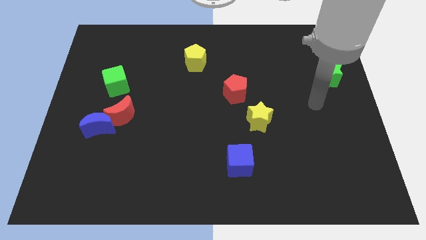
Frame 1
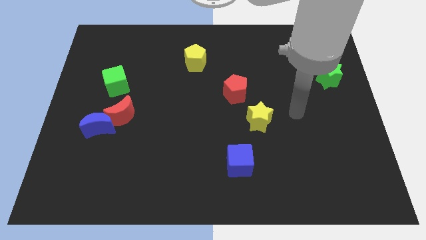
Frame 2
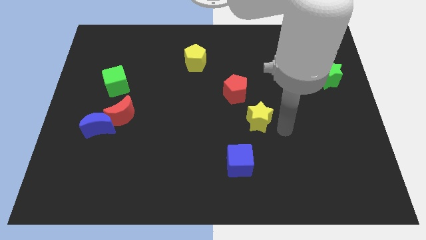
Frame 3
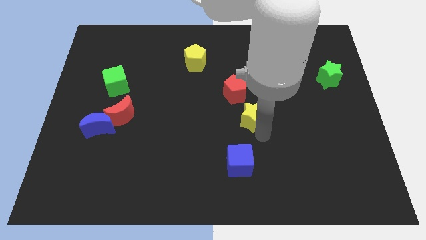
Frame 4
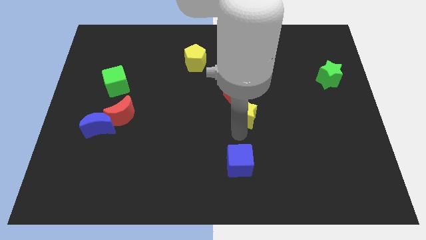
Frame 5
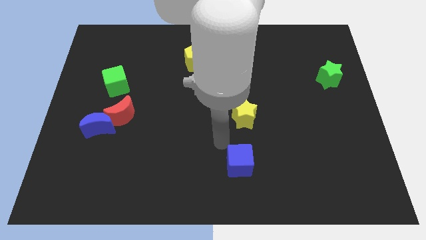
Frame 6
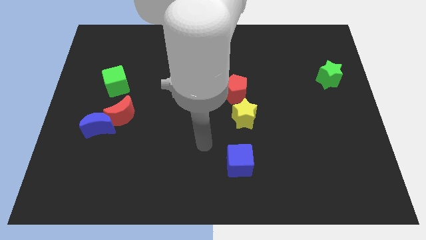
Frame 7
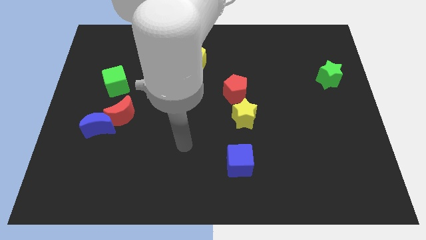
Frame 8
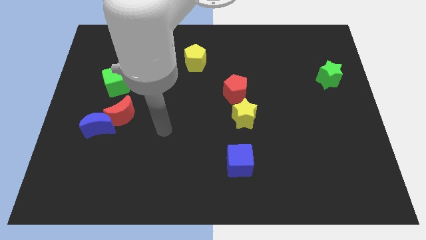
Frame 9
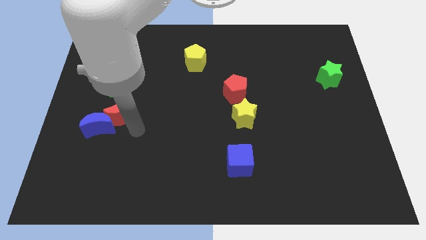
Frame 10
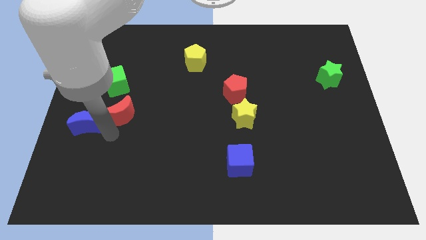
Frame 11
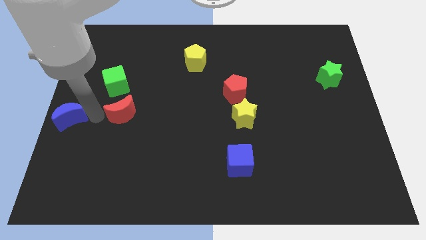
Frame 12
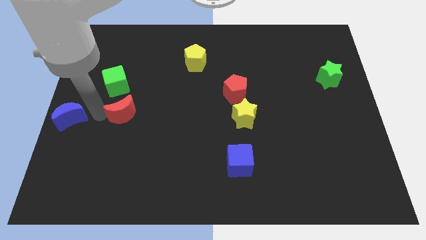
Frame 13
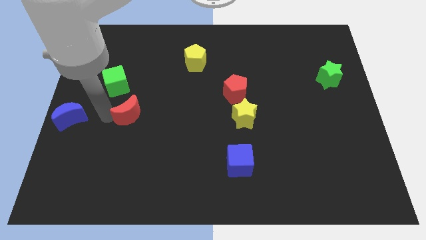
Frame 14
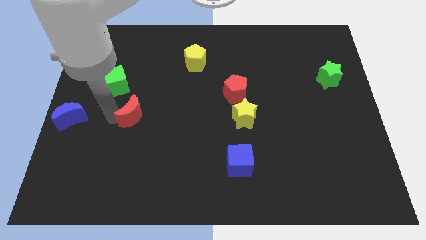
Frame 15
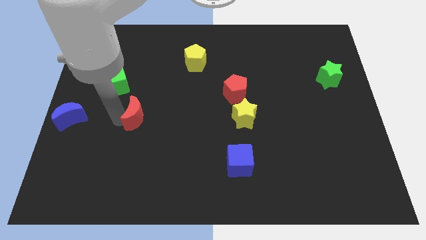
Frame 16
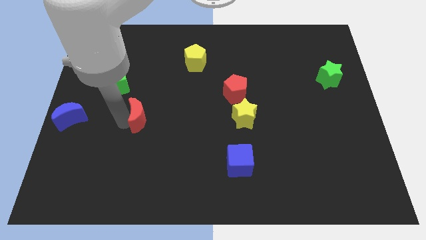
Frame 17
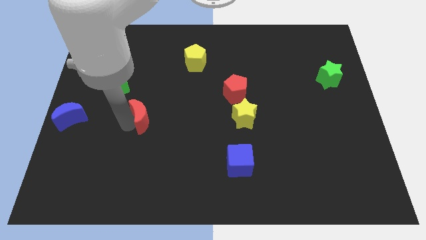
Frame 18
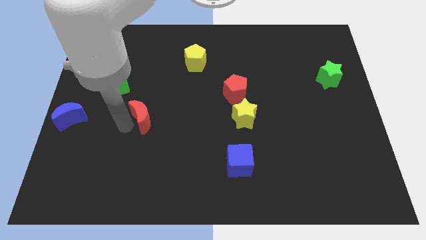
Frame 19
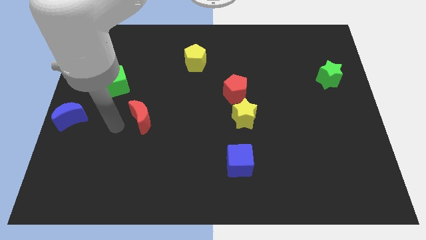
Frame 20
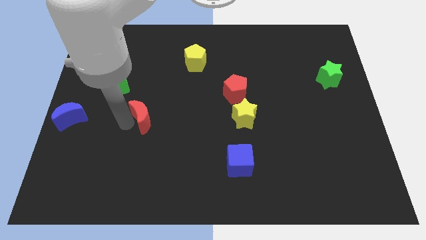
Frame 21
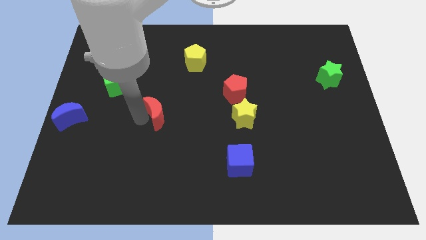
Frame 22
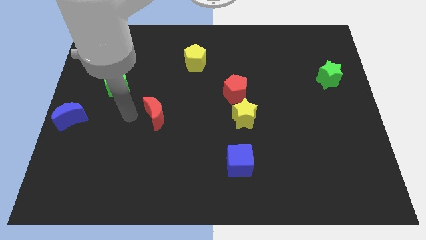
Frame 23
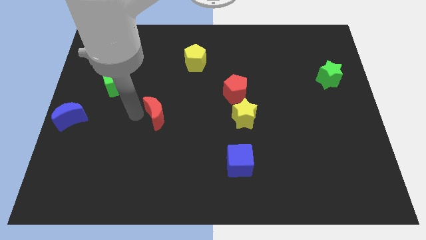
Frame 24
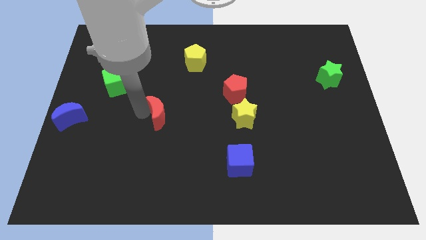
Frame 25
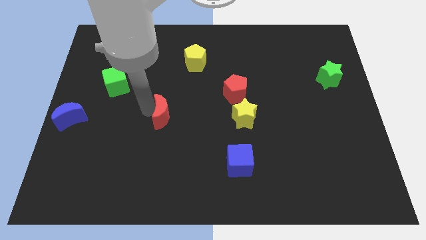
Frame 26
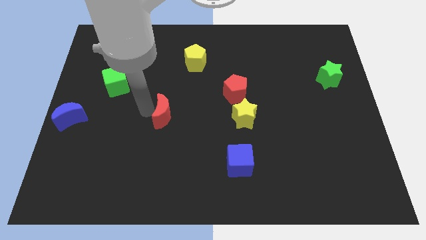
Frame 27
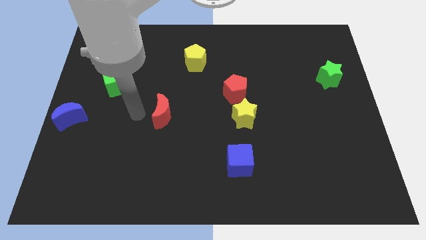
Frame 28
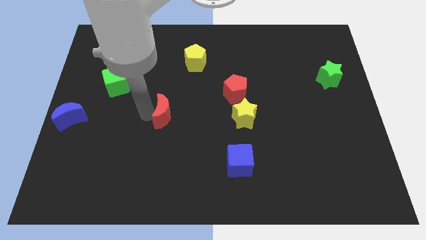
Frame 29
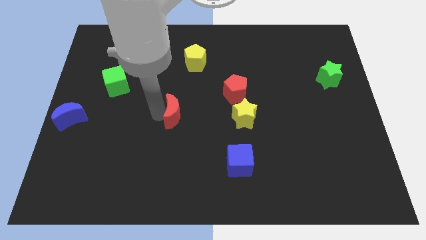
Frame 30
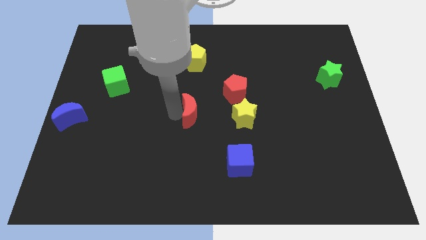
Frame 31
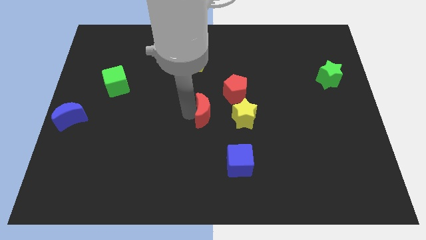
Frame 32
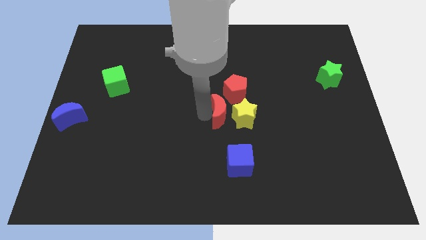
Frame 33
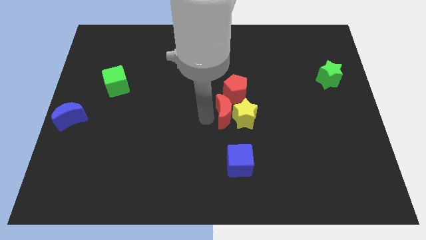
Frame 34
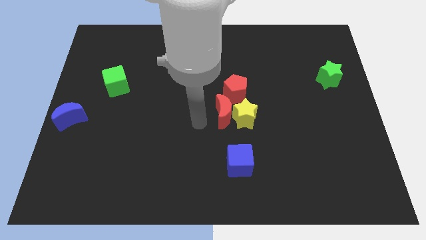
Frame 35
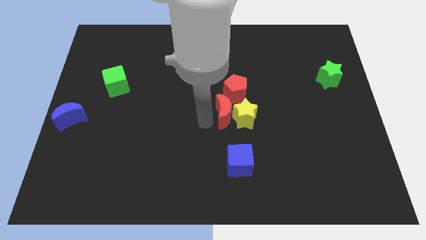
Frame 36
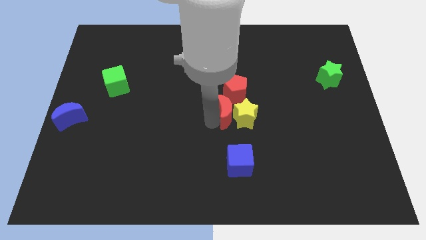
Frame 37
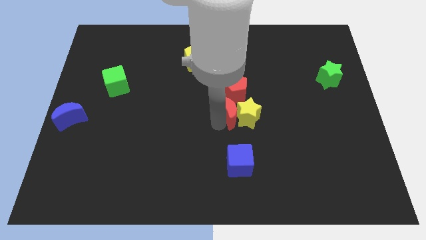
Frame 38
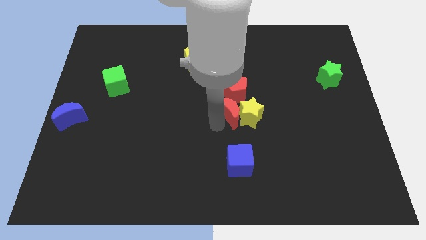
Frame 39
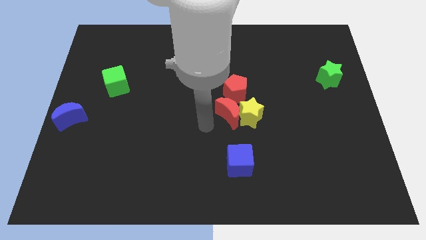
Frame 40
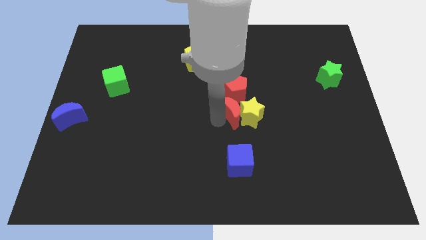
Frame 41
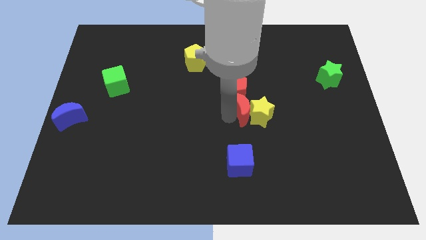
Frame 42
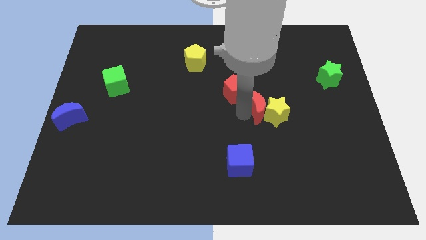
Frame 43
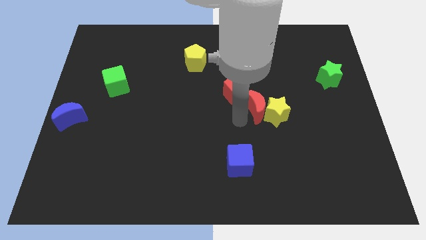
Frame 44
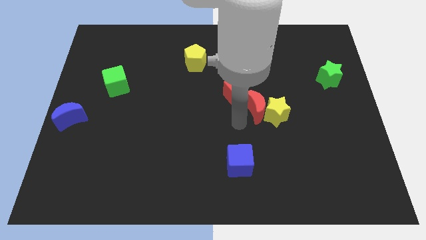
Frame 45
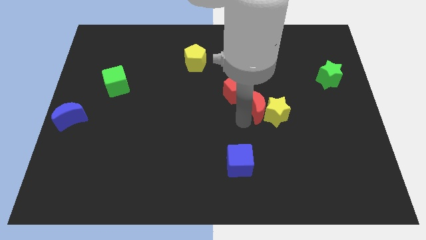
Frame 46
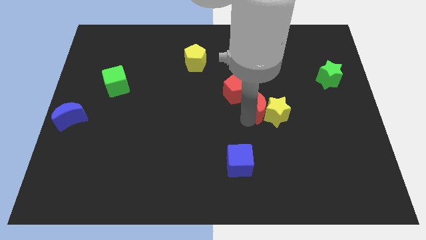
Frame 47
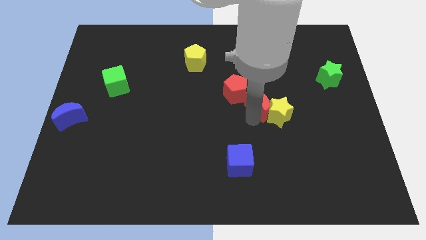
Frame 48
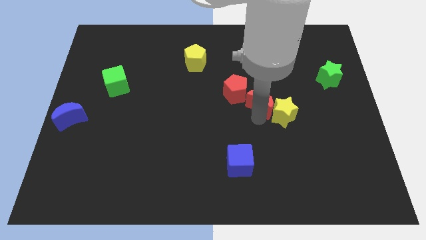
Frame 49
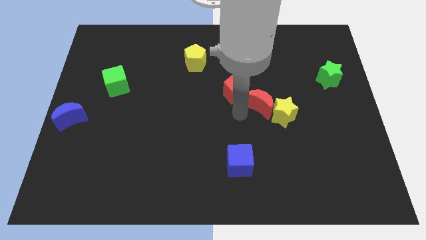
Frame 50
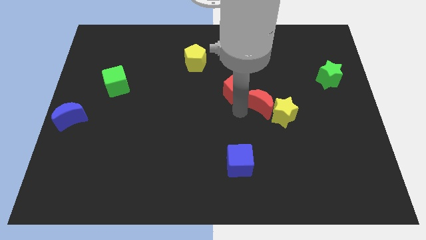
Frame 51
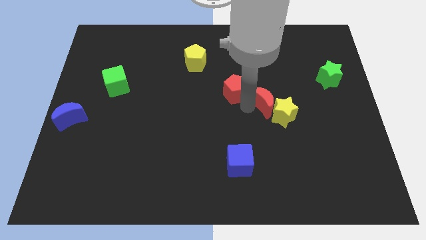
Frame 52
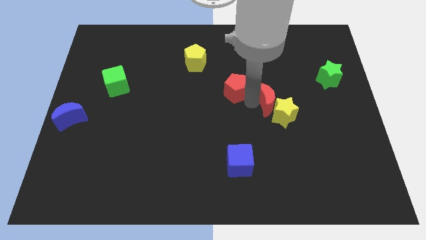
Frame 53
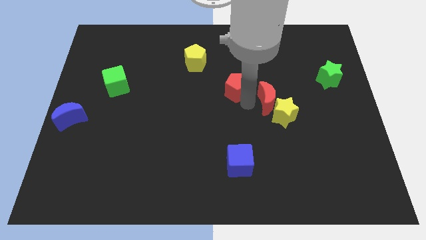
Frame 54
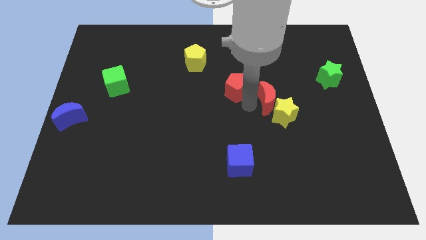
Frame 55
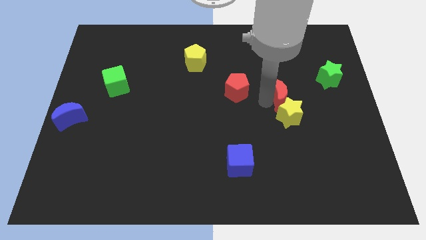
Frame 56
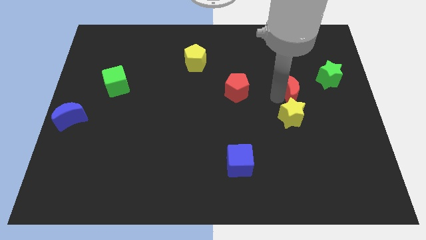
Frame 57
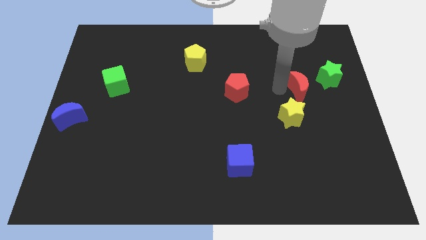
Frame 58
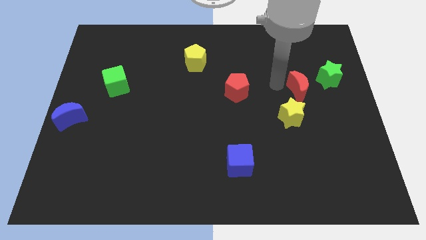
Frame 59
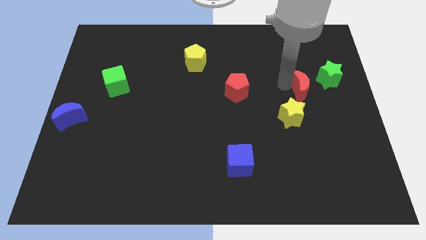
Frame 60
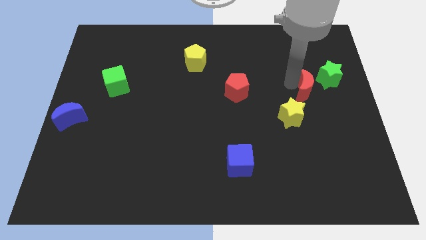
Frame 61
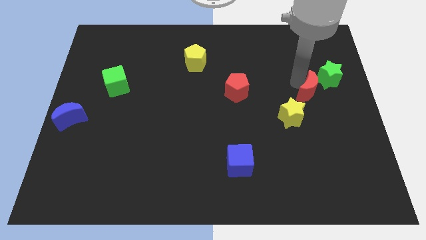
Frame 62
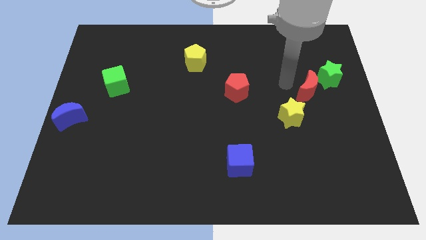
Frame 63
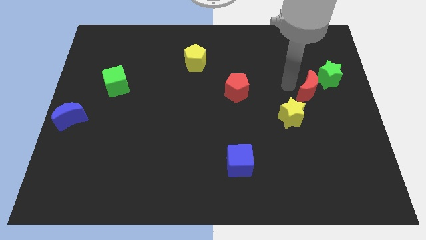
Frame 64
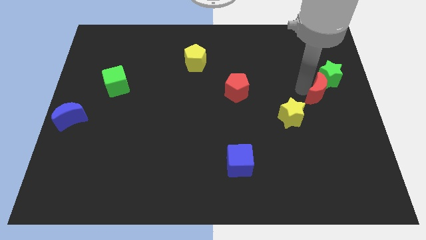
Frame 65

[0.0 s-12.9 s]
push the red moon to the center right
